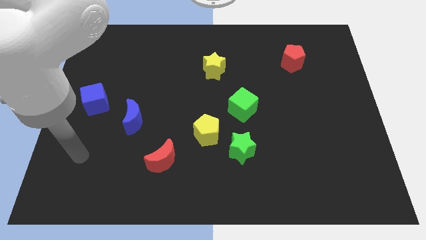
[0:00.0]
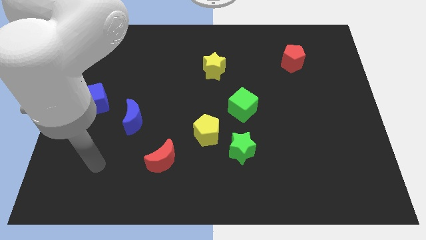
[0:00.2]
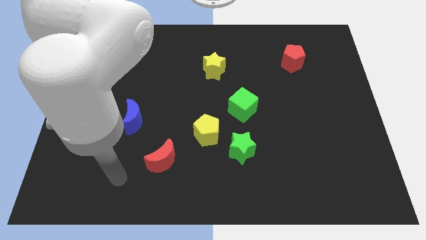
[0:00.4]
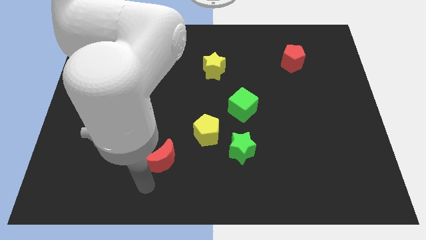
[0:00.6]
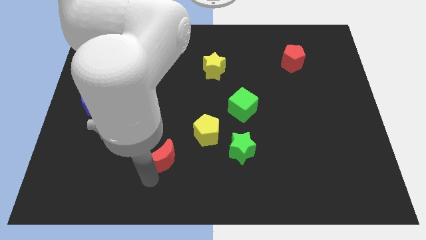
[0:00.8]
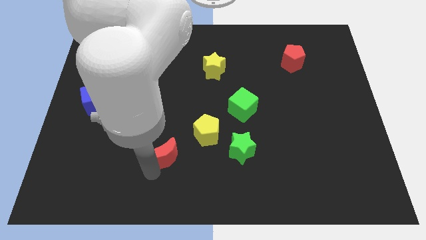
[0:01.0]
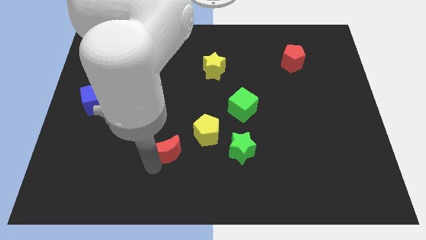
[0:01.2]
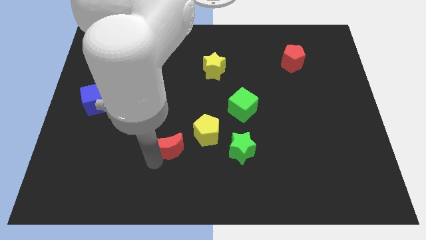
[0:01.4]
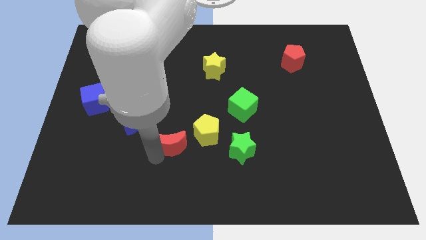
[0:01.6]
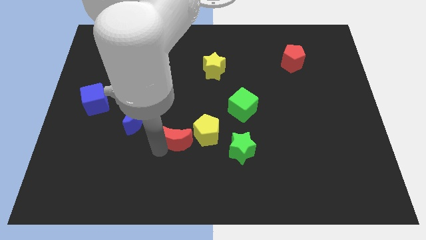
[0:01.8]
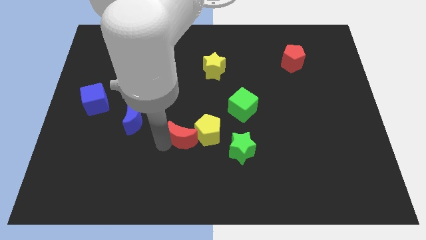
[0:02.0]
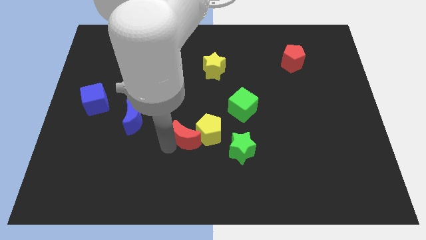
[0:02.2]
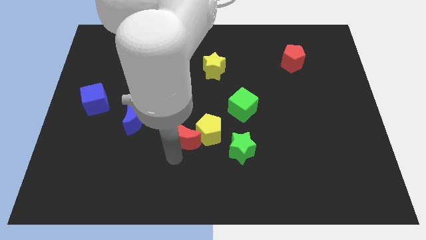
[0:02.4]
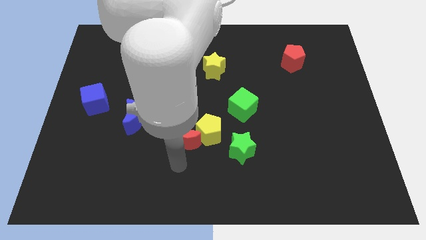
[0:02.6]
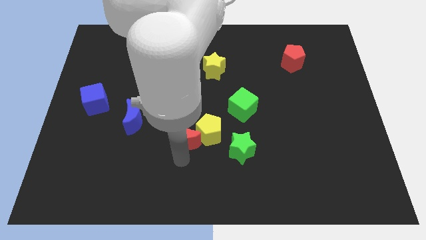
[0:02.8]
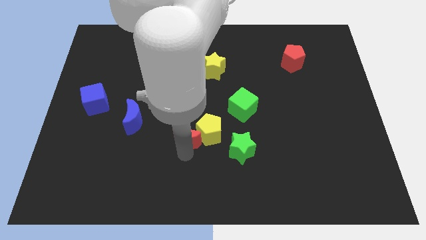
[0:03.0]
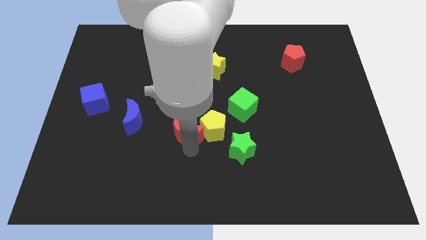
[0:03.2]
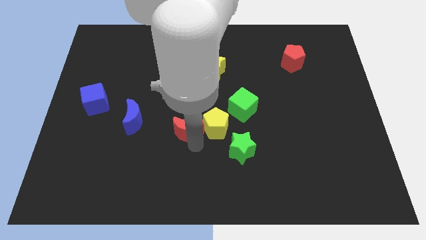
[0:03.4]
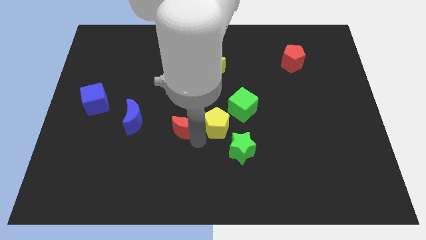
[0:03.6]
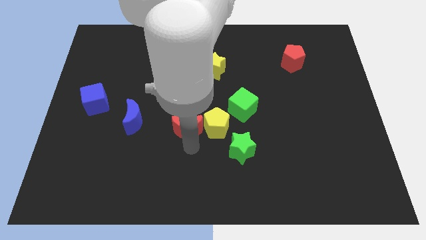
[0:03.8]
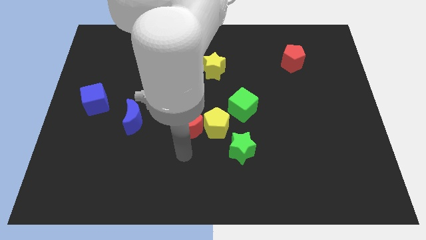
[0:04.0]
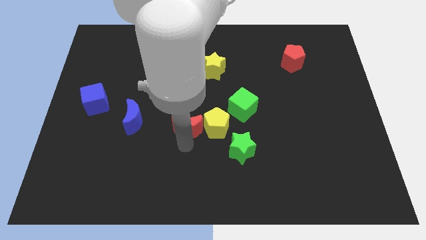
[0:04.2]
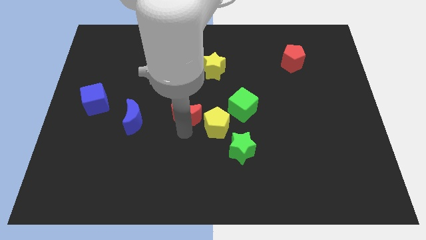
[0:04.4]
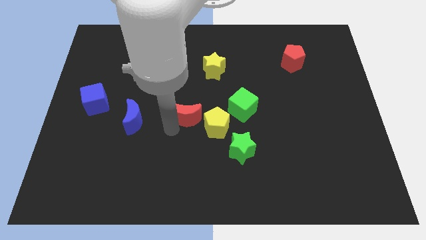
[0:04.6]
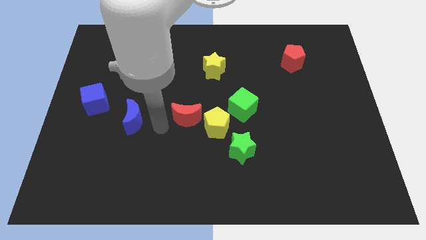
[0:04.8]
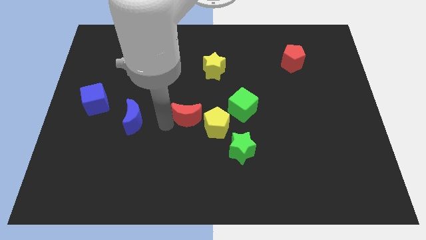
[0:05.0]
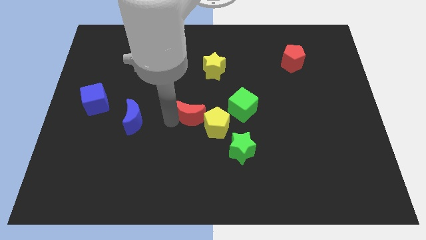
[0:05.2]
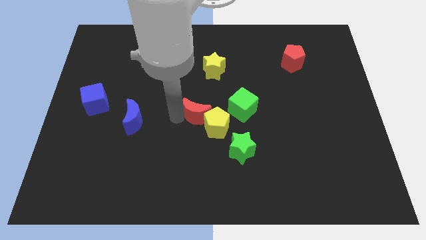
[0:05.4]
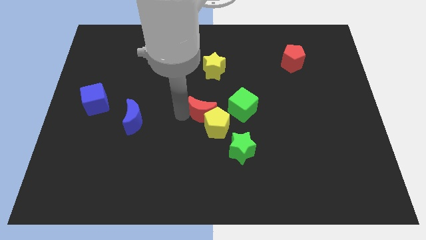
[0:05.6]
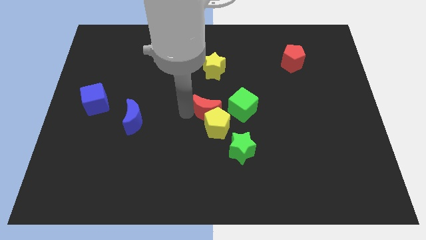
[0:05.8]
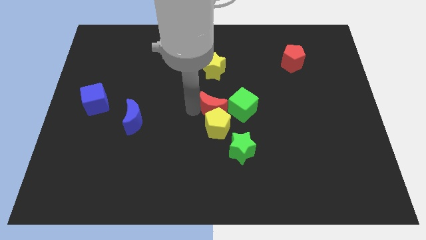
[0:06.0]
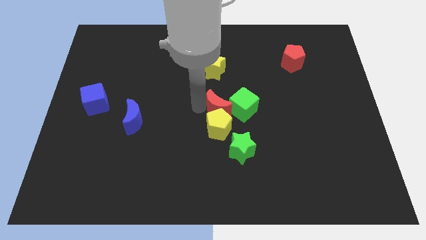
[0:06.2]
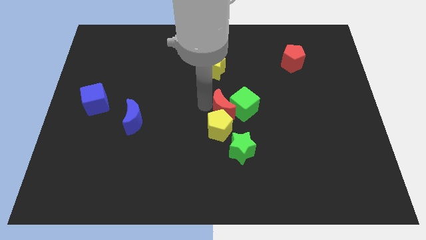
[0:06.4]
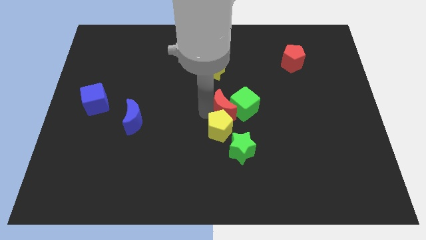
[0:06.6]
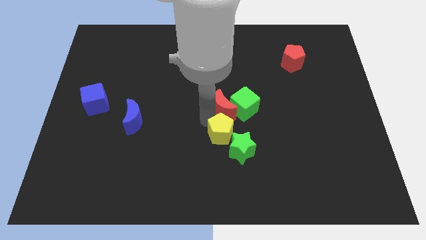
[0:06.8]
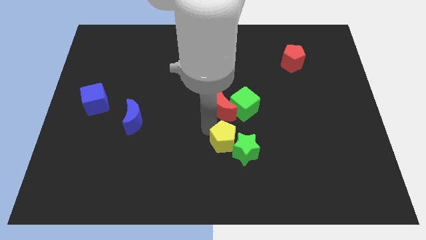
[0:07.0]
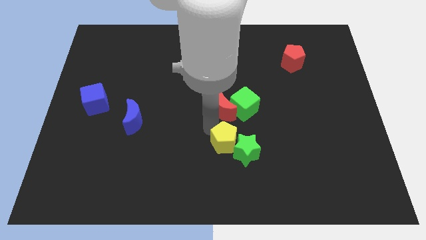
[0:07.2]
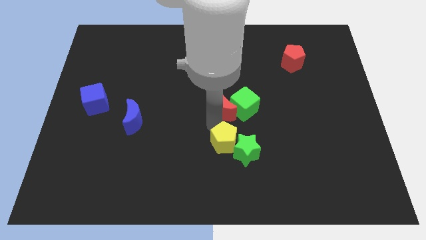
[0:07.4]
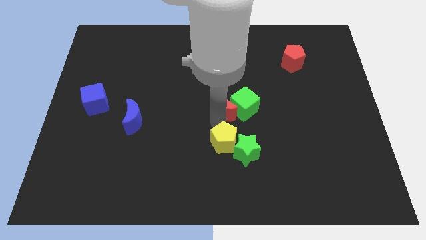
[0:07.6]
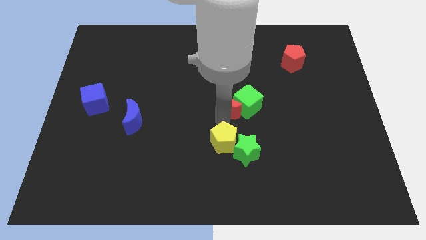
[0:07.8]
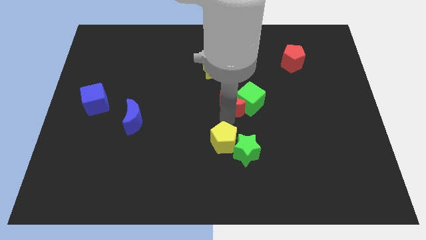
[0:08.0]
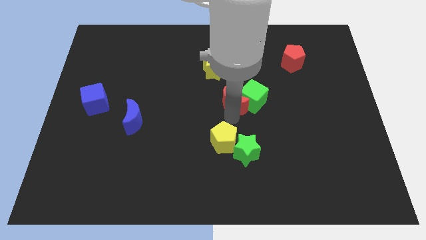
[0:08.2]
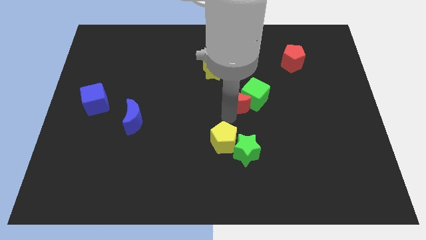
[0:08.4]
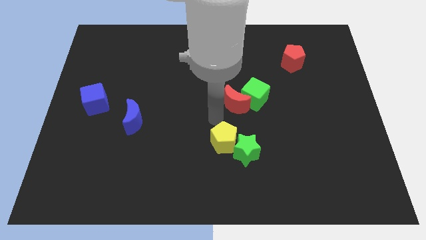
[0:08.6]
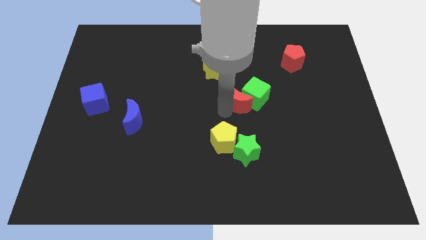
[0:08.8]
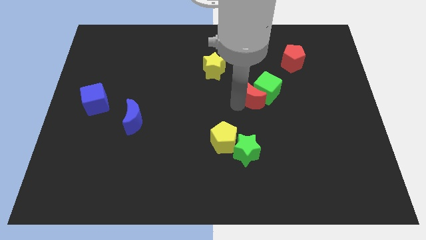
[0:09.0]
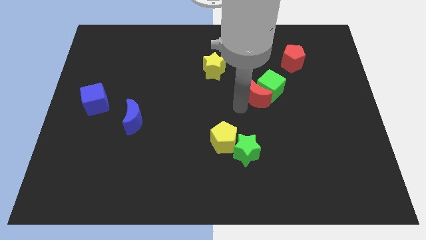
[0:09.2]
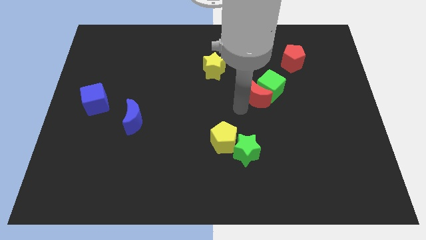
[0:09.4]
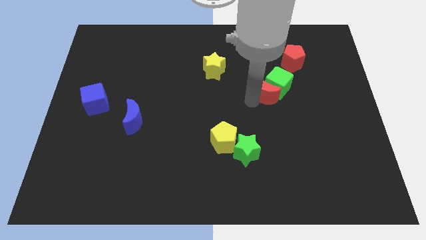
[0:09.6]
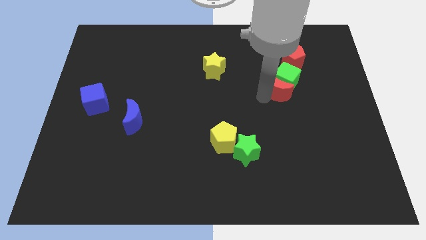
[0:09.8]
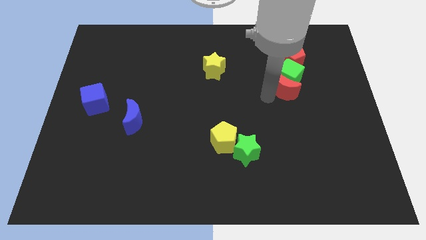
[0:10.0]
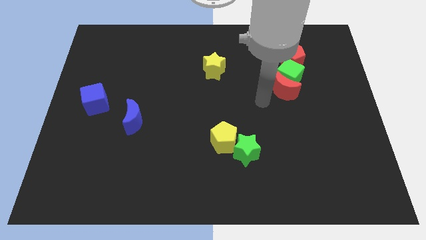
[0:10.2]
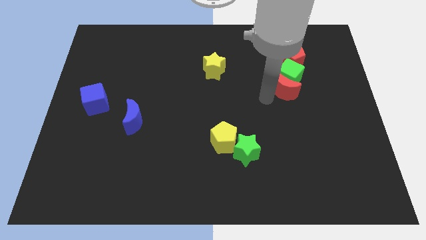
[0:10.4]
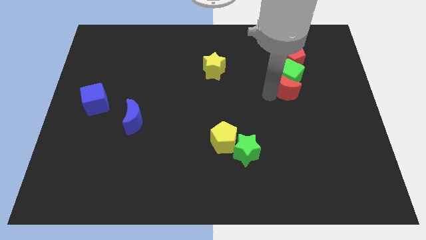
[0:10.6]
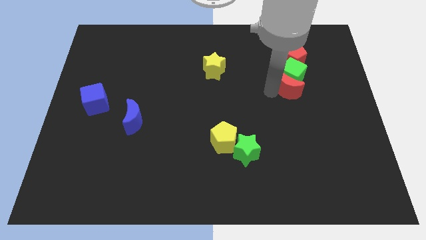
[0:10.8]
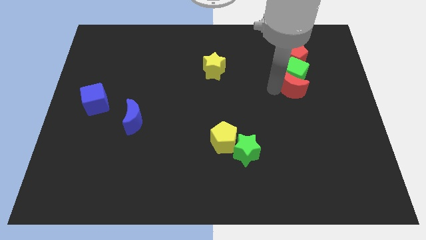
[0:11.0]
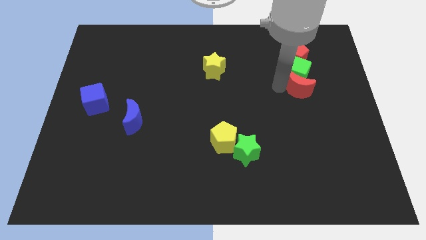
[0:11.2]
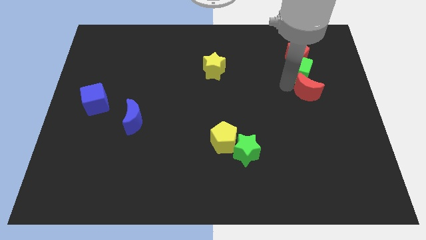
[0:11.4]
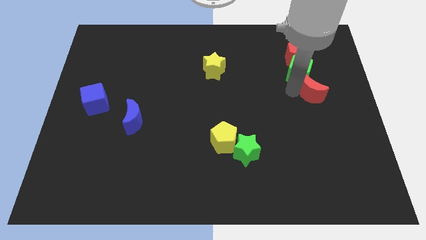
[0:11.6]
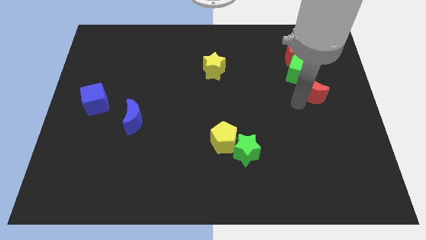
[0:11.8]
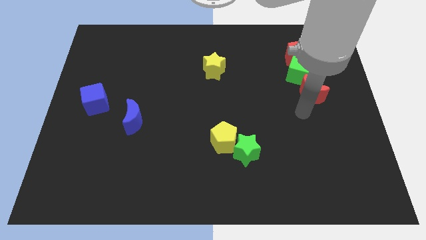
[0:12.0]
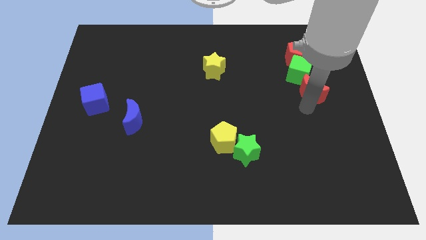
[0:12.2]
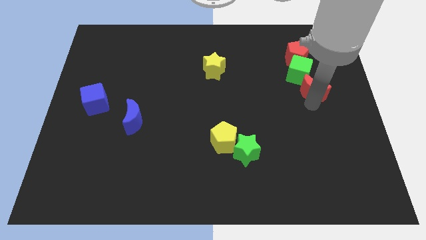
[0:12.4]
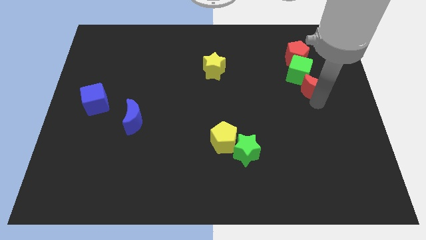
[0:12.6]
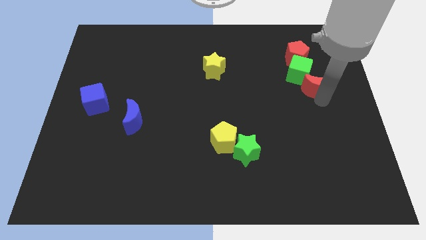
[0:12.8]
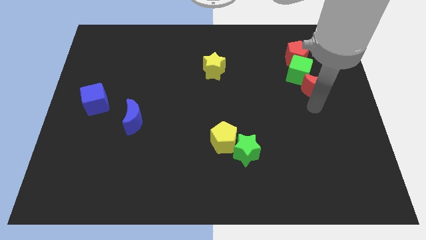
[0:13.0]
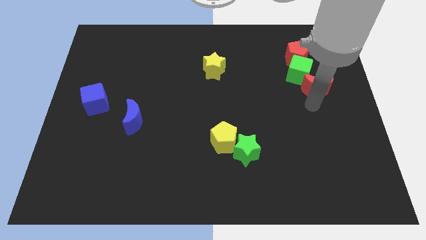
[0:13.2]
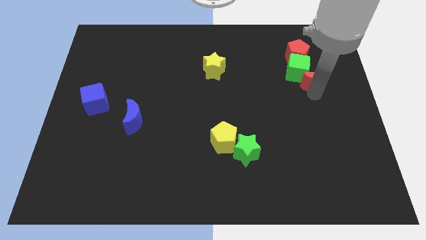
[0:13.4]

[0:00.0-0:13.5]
move the red moon diagonally down and to the right of the red pentagon

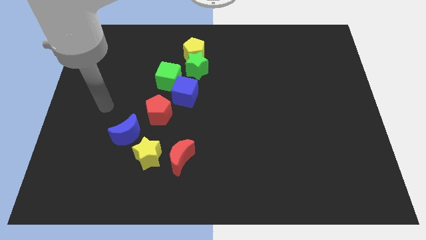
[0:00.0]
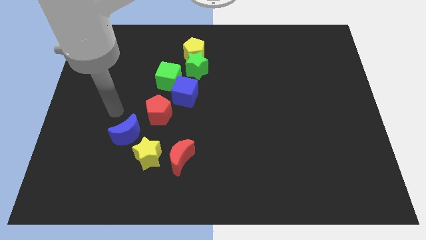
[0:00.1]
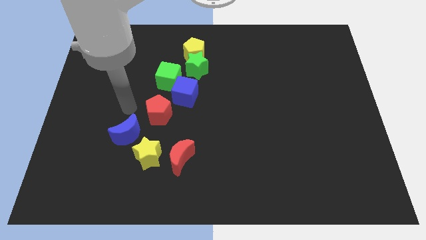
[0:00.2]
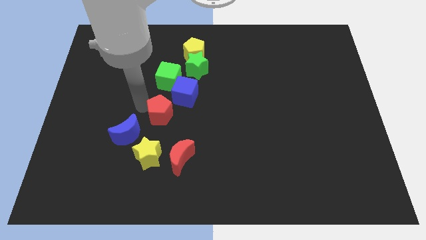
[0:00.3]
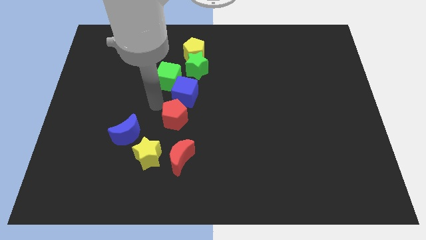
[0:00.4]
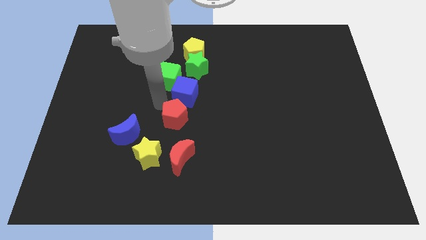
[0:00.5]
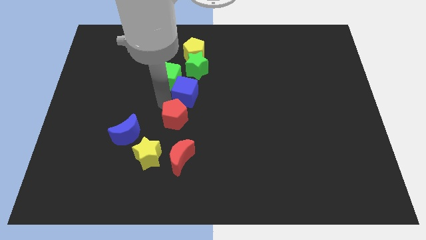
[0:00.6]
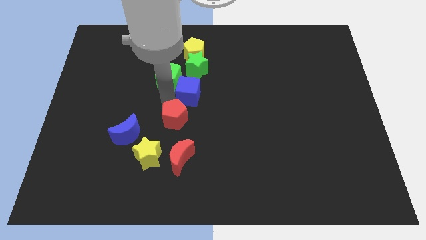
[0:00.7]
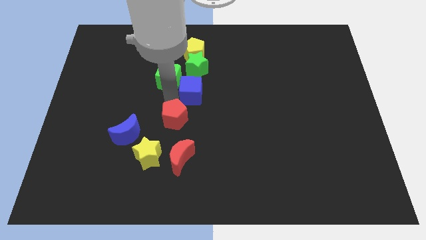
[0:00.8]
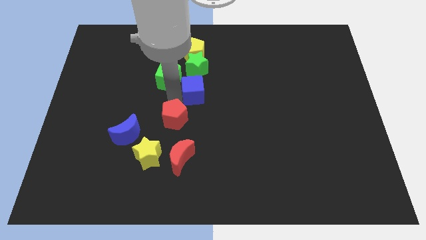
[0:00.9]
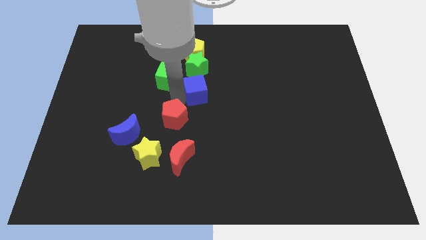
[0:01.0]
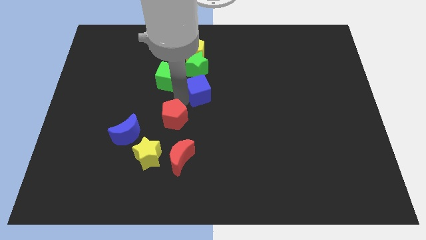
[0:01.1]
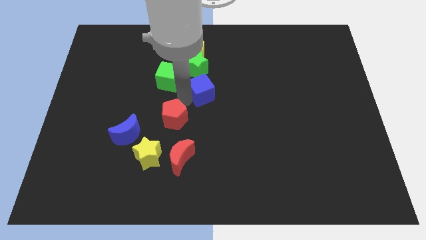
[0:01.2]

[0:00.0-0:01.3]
slide the blue cube to the bottom right side of the green star
